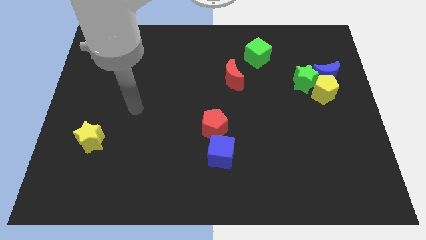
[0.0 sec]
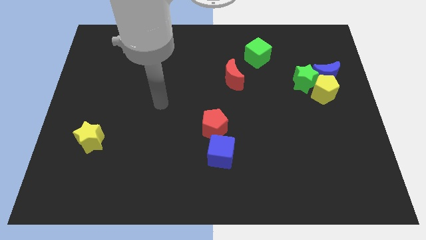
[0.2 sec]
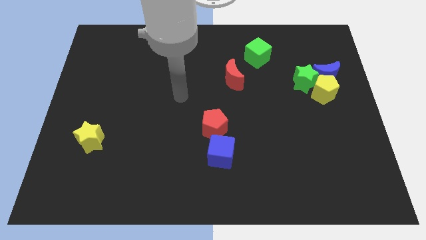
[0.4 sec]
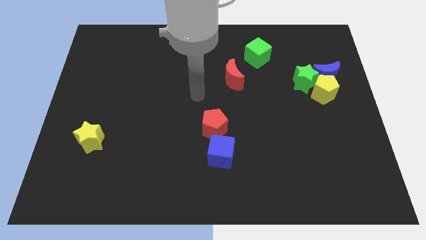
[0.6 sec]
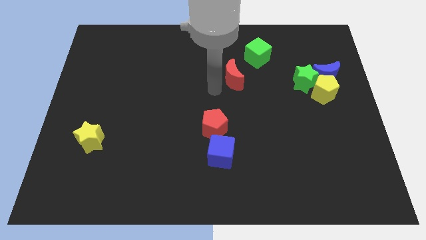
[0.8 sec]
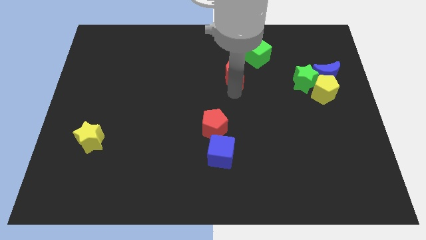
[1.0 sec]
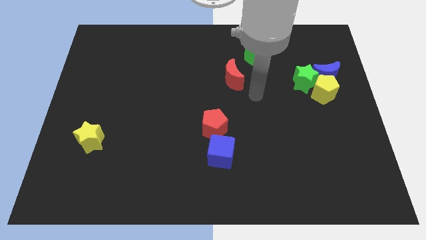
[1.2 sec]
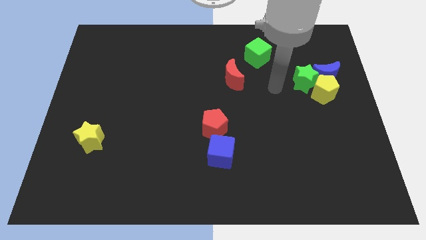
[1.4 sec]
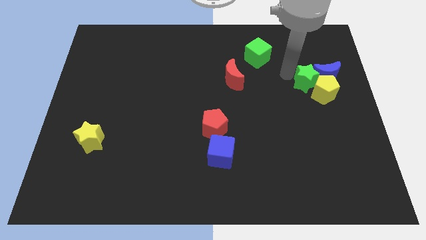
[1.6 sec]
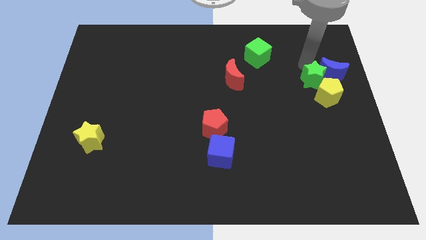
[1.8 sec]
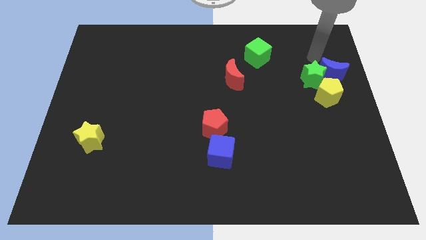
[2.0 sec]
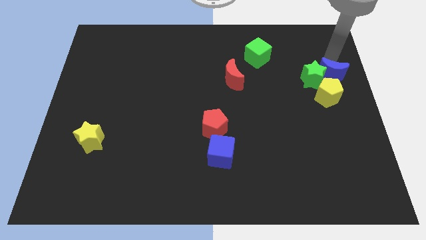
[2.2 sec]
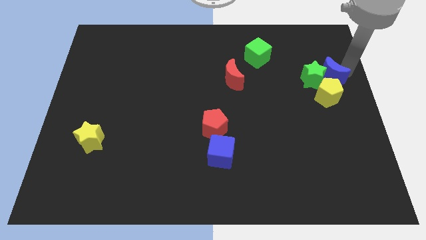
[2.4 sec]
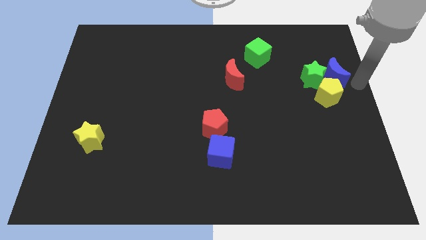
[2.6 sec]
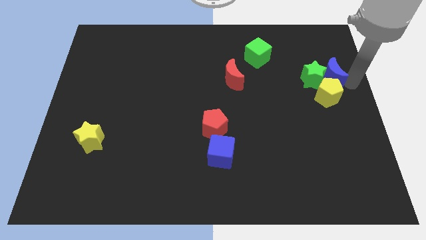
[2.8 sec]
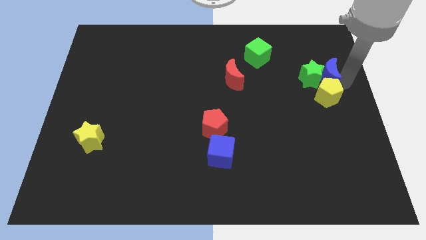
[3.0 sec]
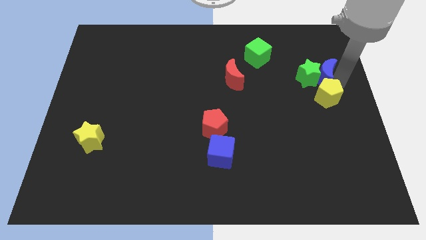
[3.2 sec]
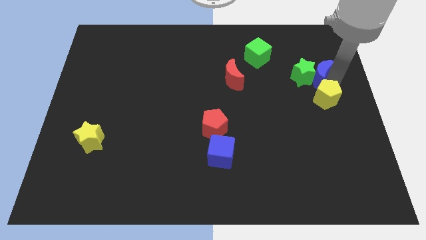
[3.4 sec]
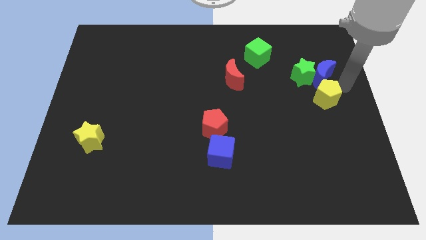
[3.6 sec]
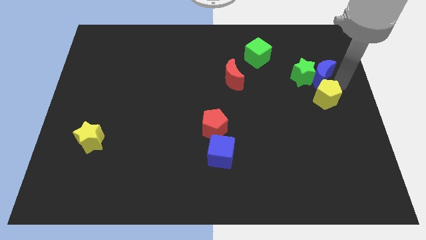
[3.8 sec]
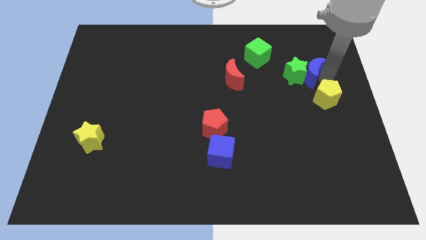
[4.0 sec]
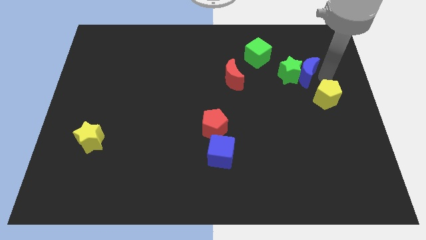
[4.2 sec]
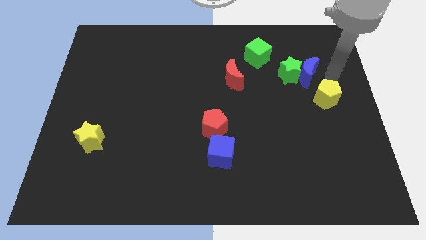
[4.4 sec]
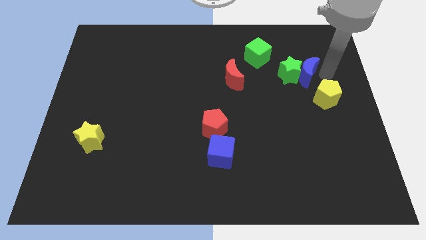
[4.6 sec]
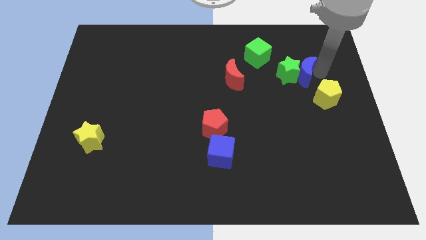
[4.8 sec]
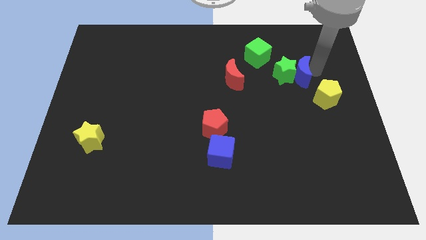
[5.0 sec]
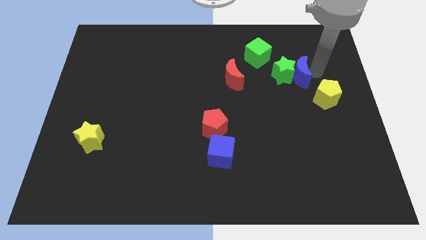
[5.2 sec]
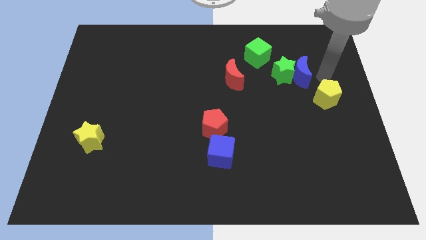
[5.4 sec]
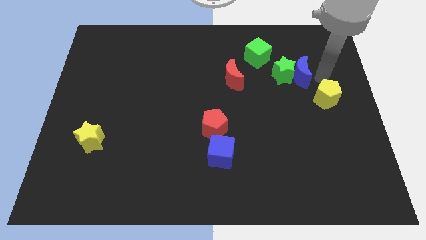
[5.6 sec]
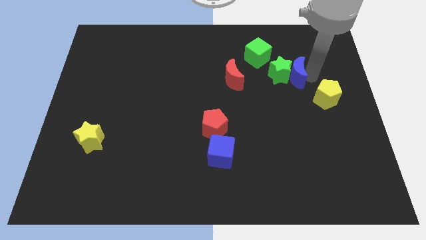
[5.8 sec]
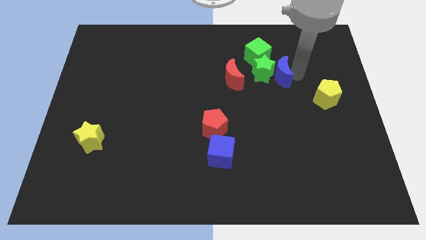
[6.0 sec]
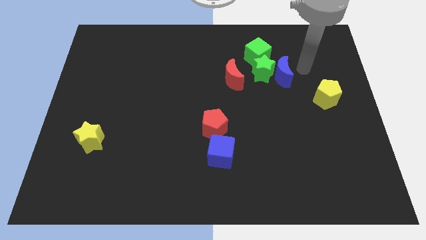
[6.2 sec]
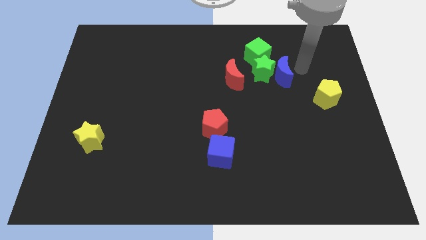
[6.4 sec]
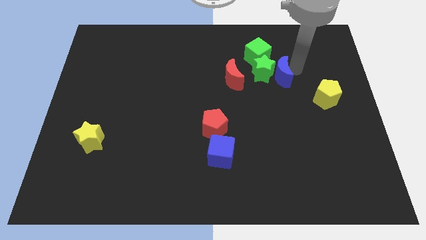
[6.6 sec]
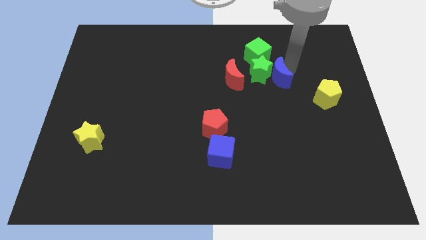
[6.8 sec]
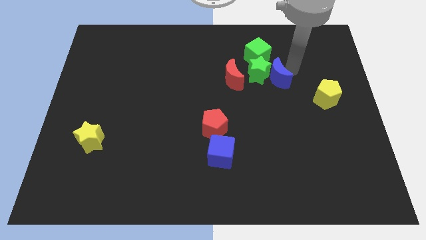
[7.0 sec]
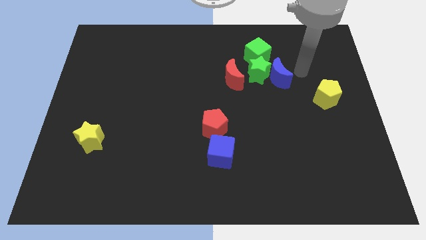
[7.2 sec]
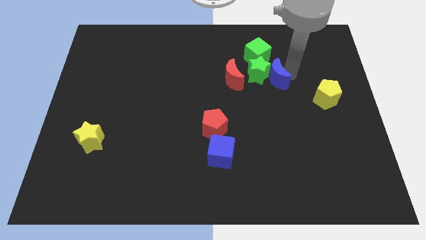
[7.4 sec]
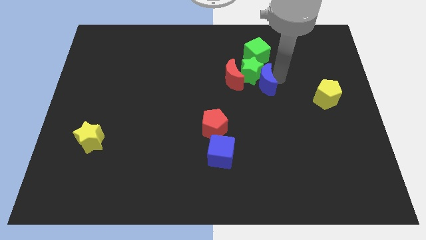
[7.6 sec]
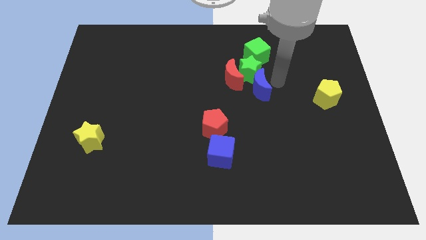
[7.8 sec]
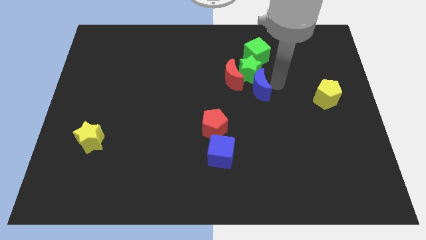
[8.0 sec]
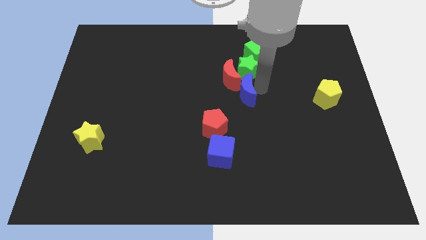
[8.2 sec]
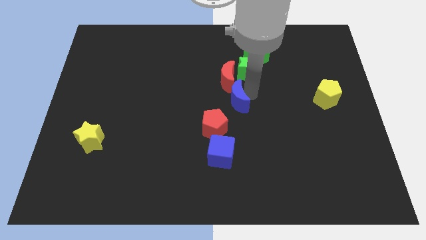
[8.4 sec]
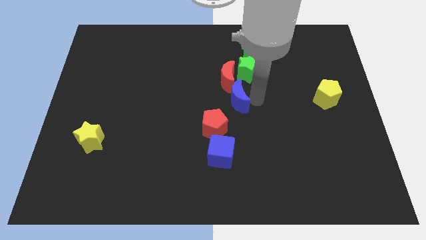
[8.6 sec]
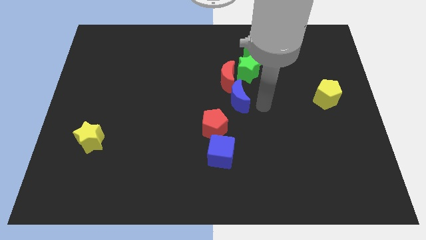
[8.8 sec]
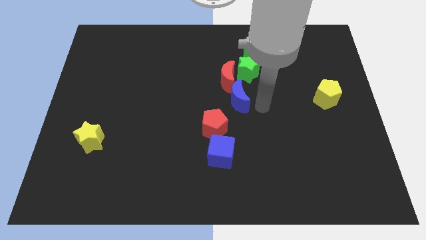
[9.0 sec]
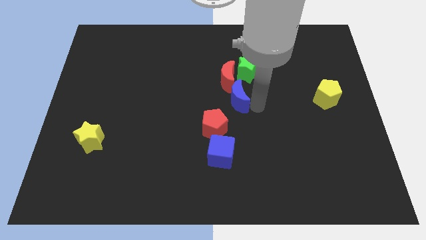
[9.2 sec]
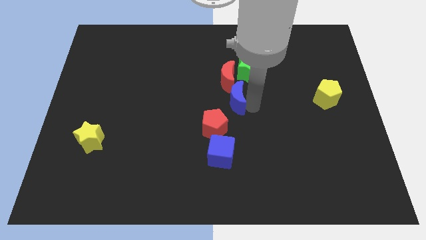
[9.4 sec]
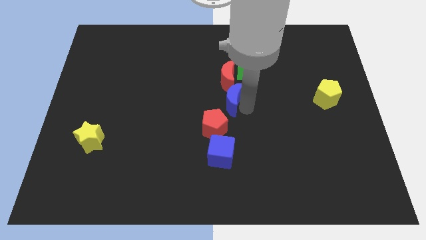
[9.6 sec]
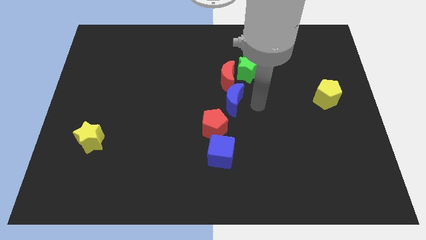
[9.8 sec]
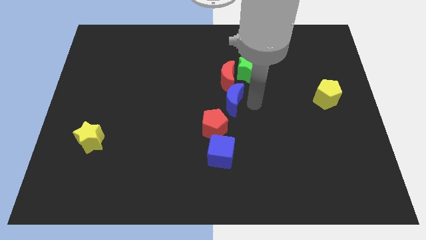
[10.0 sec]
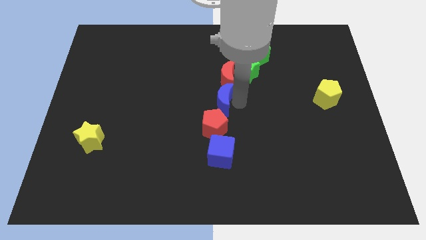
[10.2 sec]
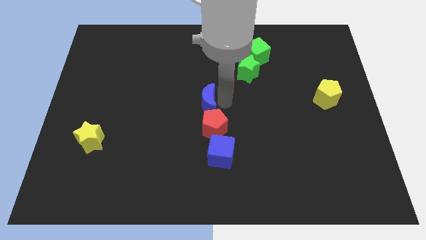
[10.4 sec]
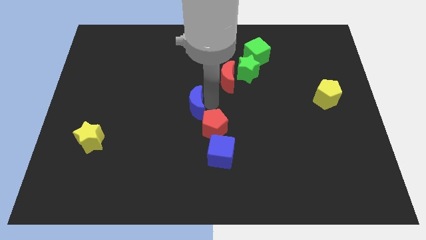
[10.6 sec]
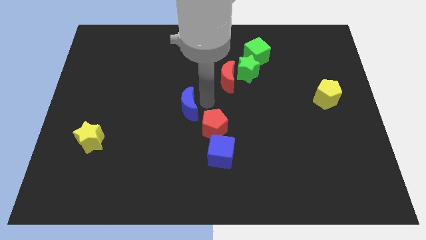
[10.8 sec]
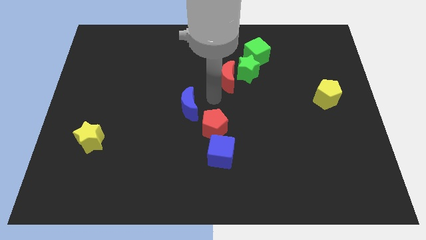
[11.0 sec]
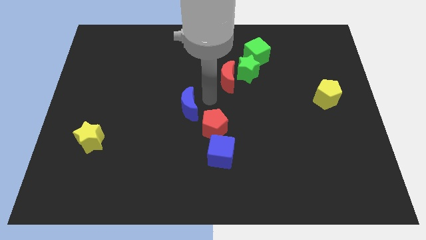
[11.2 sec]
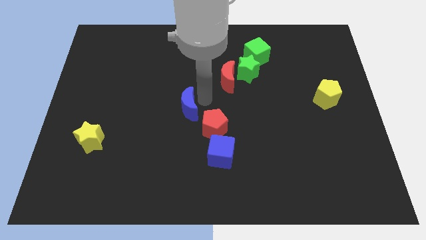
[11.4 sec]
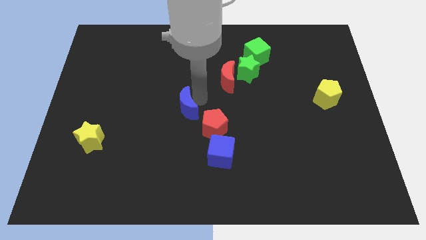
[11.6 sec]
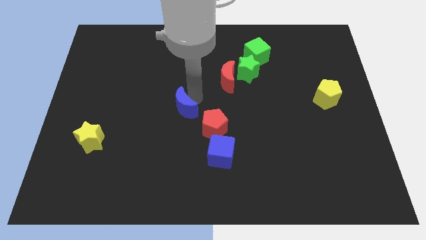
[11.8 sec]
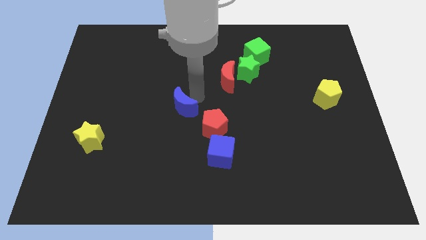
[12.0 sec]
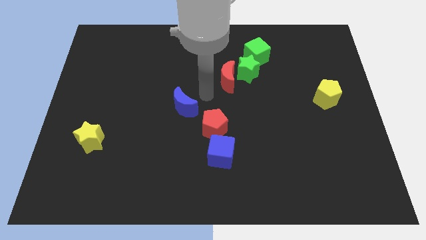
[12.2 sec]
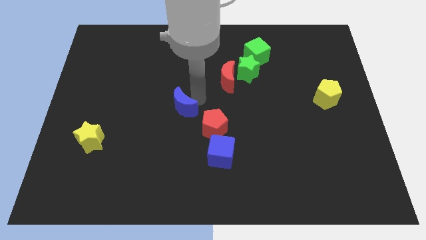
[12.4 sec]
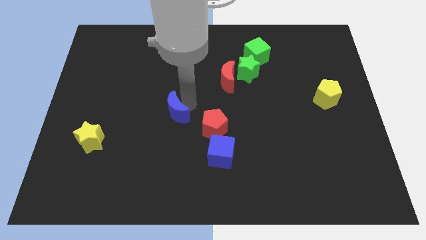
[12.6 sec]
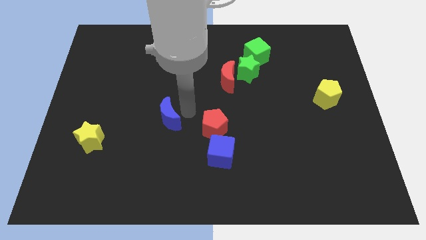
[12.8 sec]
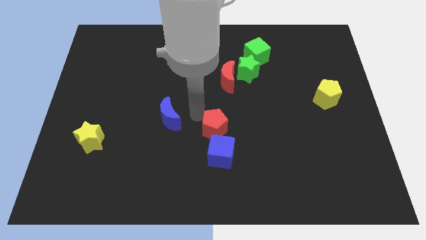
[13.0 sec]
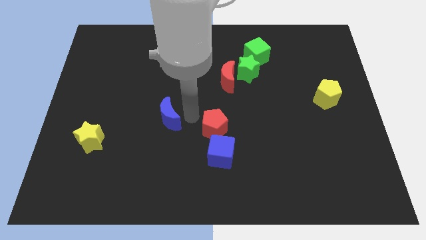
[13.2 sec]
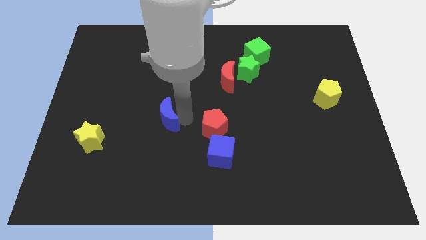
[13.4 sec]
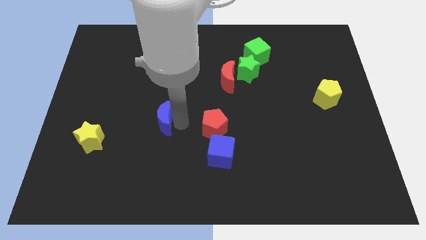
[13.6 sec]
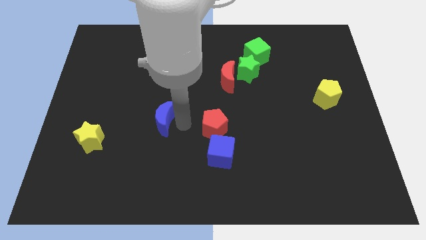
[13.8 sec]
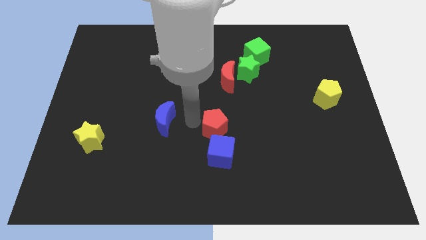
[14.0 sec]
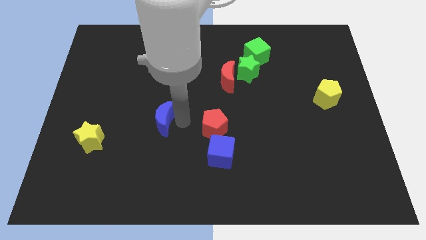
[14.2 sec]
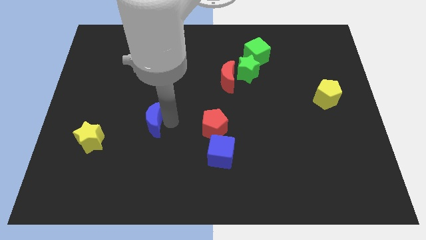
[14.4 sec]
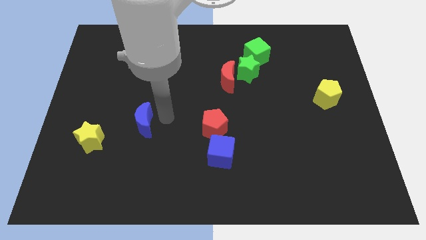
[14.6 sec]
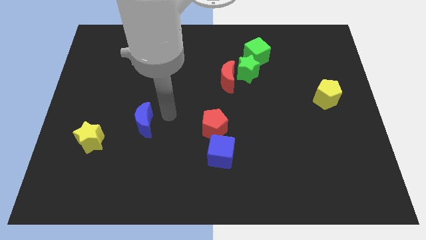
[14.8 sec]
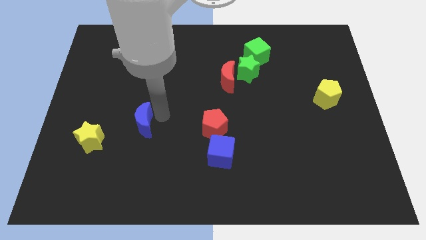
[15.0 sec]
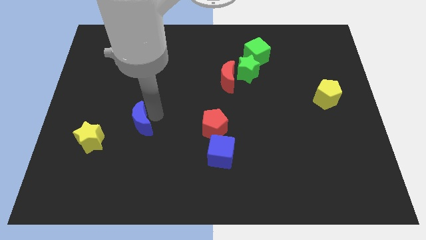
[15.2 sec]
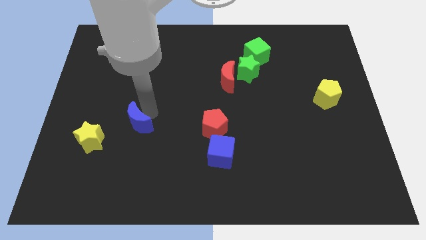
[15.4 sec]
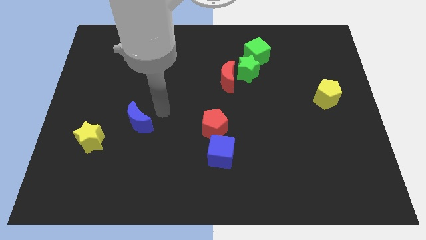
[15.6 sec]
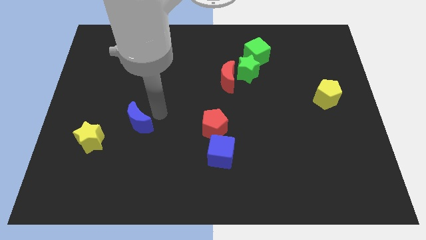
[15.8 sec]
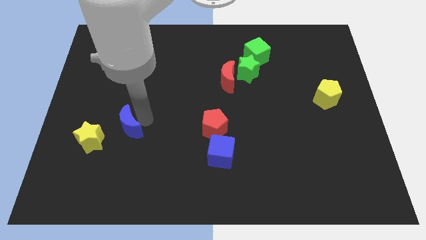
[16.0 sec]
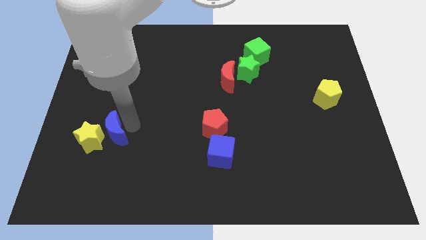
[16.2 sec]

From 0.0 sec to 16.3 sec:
push the blue moon towards the yellow star
